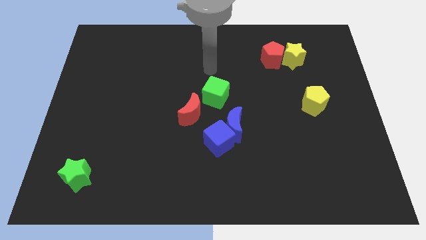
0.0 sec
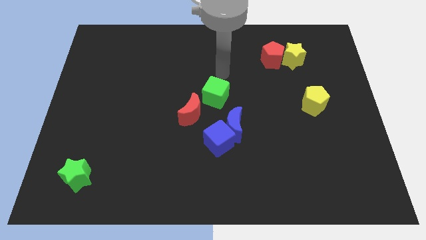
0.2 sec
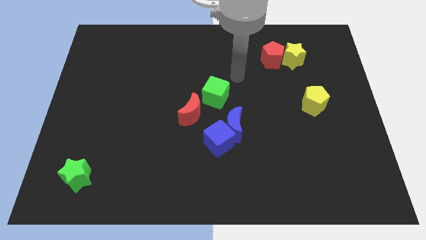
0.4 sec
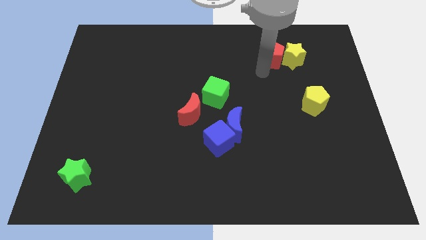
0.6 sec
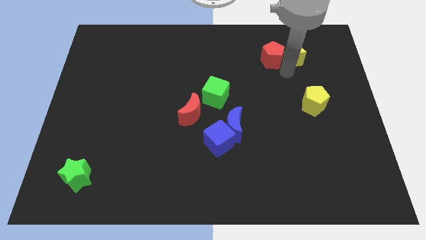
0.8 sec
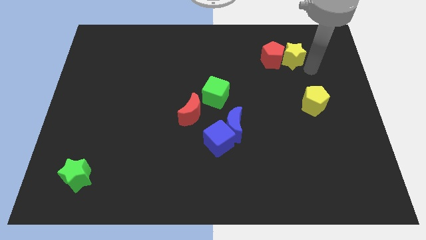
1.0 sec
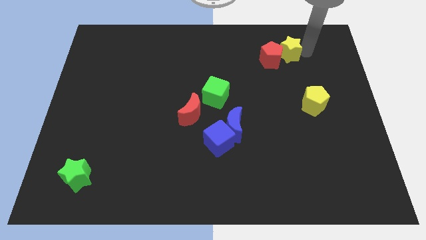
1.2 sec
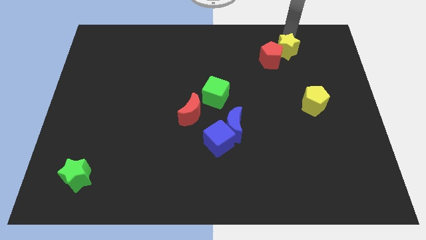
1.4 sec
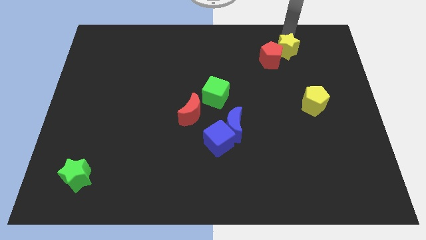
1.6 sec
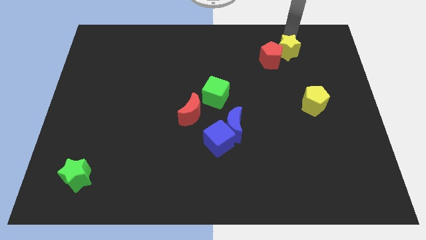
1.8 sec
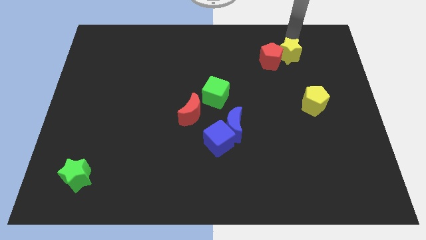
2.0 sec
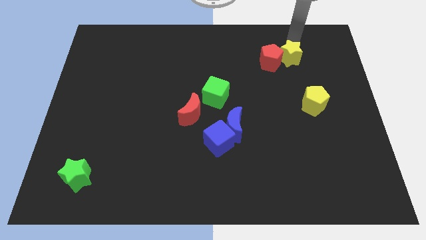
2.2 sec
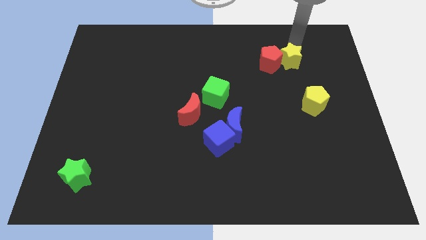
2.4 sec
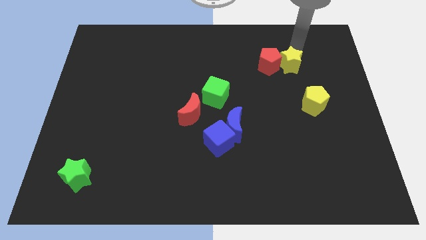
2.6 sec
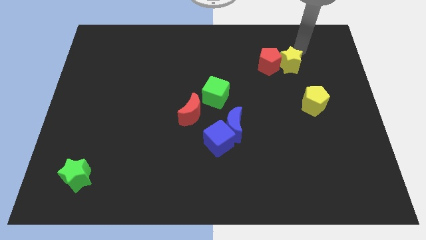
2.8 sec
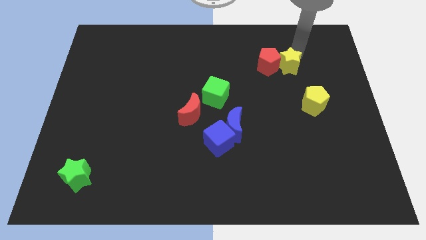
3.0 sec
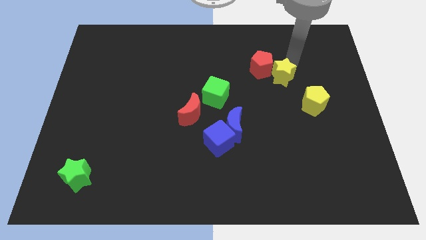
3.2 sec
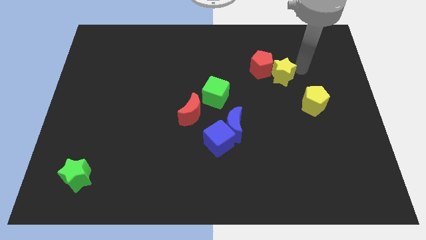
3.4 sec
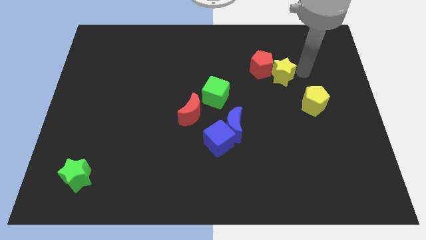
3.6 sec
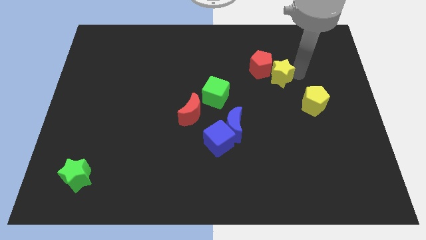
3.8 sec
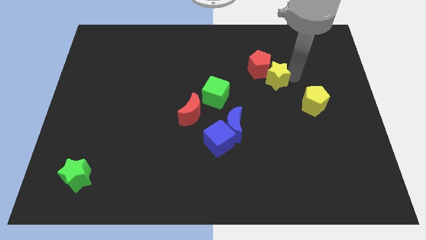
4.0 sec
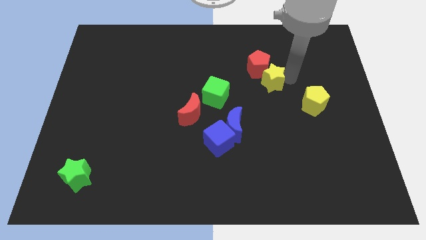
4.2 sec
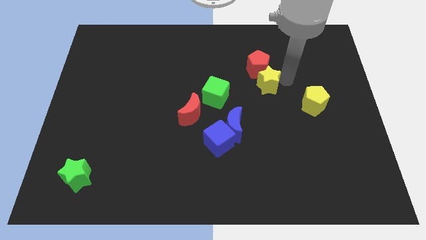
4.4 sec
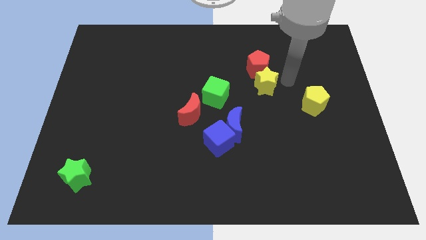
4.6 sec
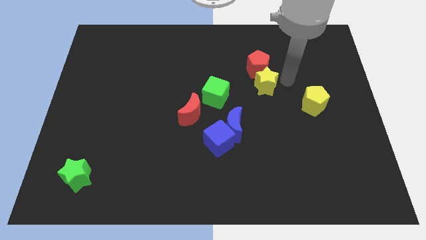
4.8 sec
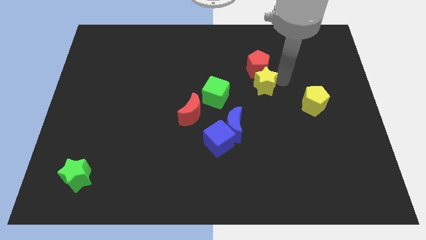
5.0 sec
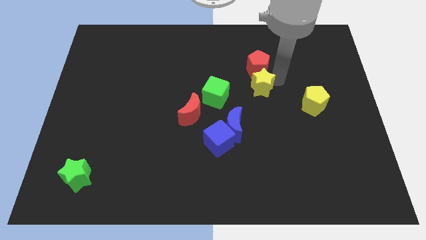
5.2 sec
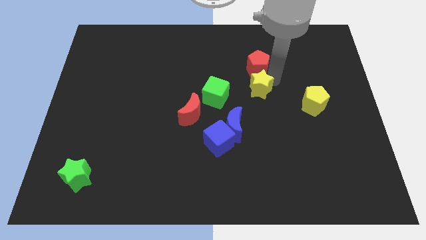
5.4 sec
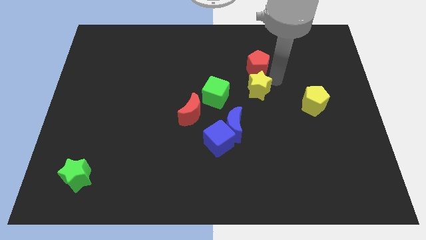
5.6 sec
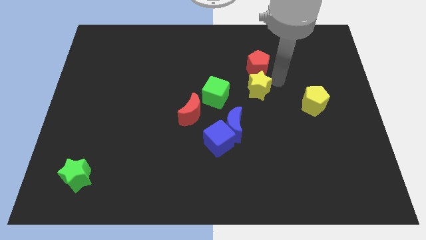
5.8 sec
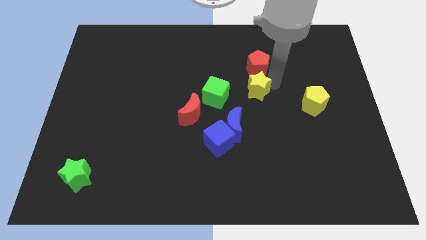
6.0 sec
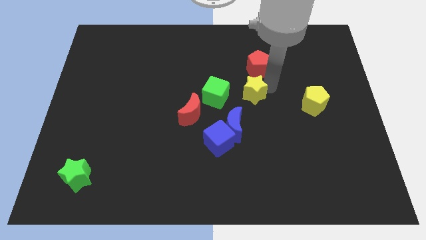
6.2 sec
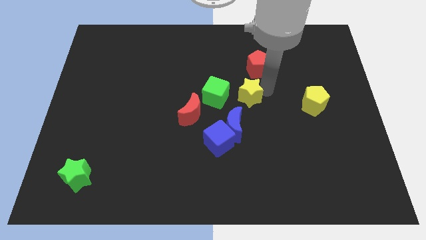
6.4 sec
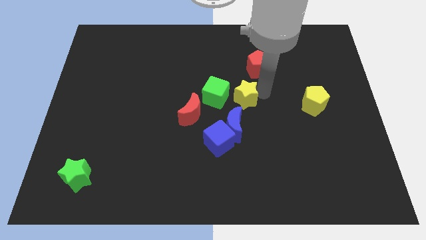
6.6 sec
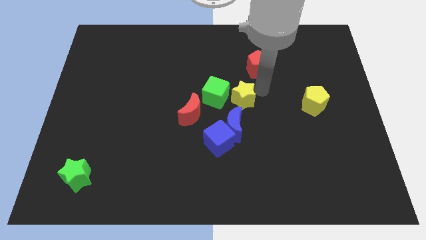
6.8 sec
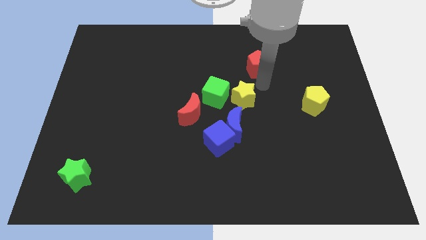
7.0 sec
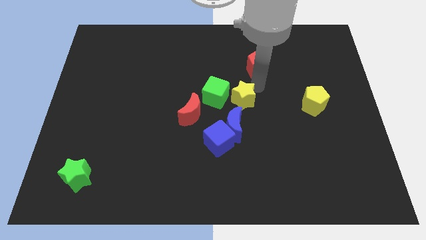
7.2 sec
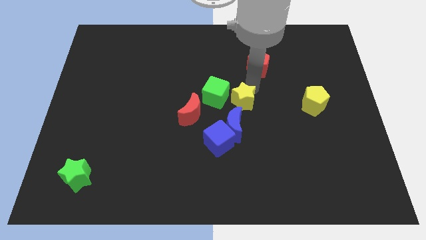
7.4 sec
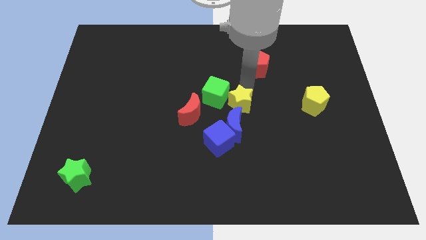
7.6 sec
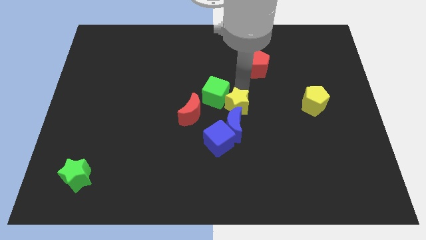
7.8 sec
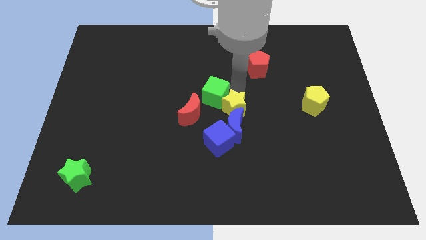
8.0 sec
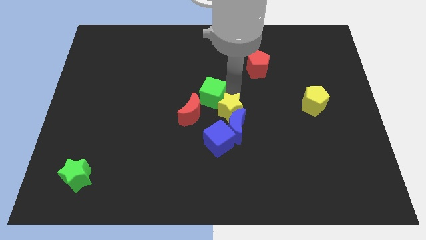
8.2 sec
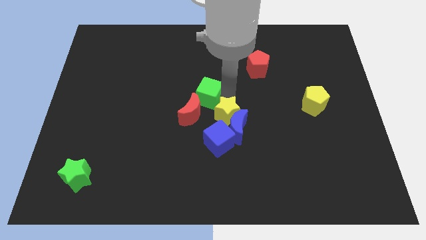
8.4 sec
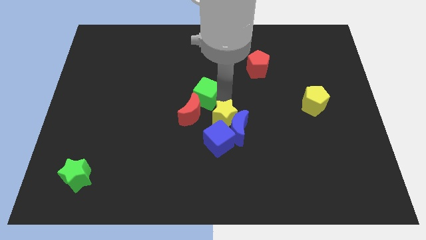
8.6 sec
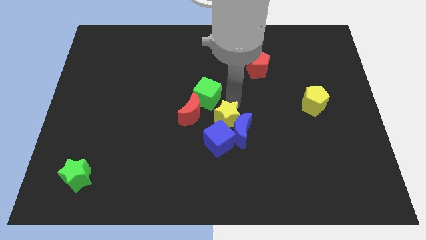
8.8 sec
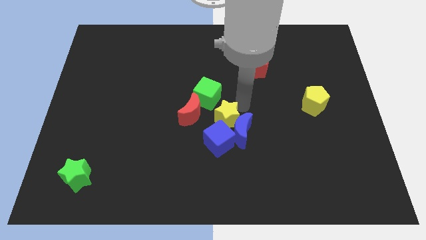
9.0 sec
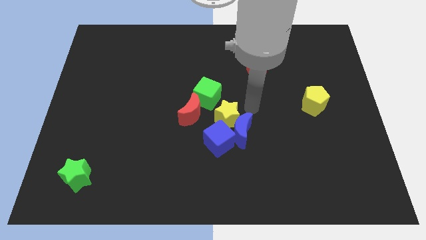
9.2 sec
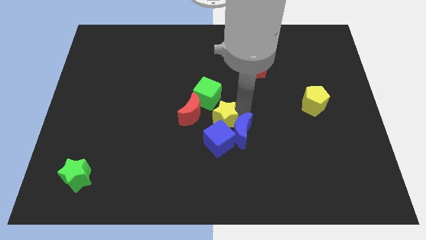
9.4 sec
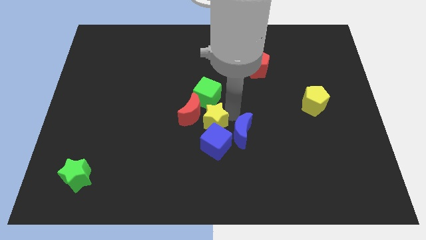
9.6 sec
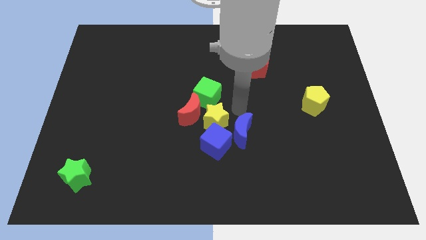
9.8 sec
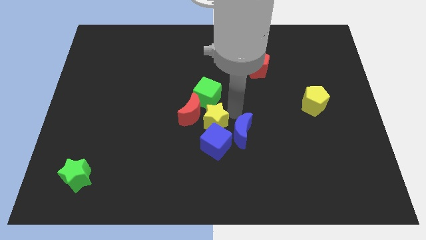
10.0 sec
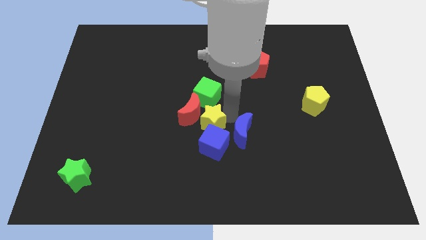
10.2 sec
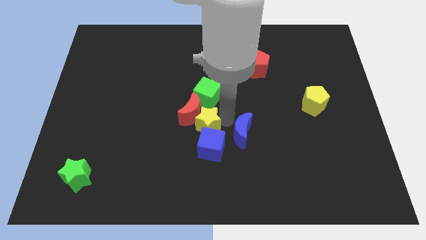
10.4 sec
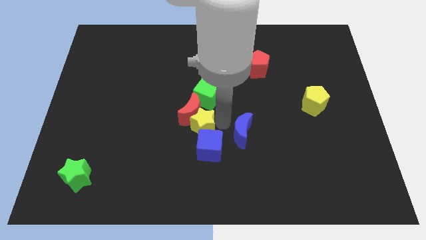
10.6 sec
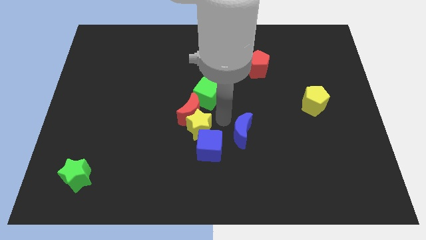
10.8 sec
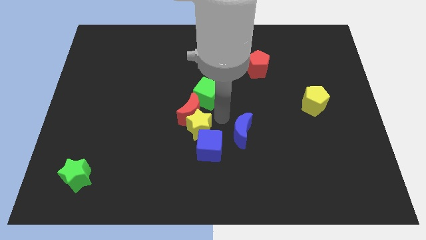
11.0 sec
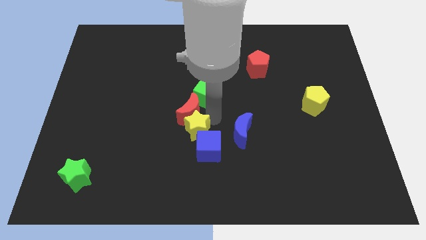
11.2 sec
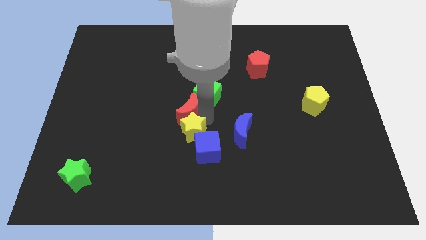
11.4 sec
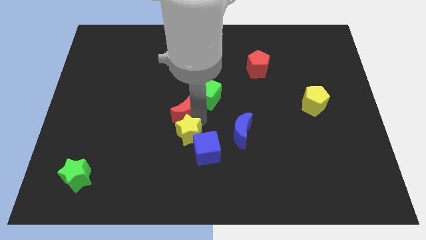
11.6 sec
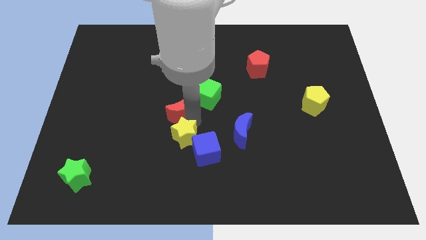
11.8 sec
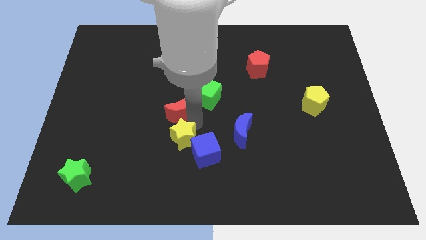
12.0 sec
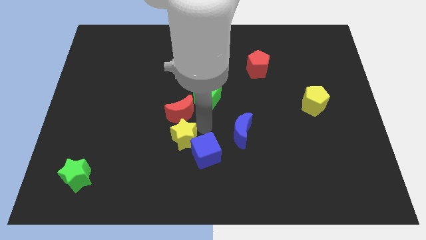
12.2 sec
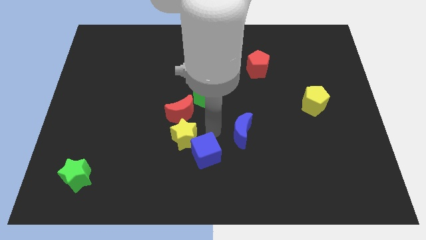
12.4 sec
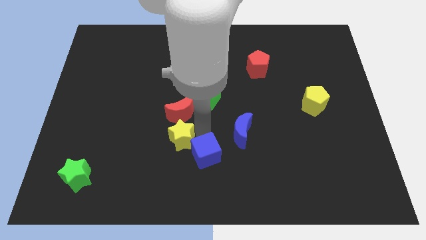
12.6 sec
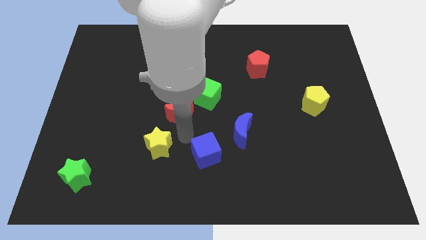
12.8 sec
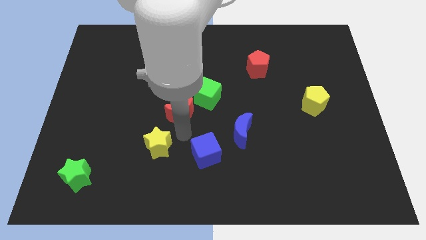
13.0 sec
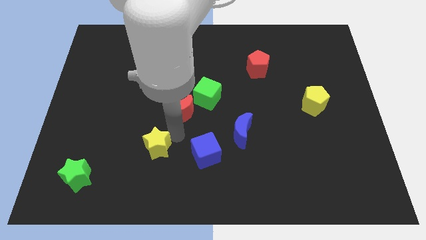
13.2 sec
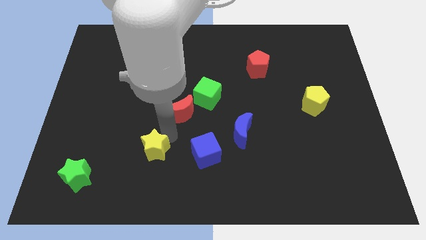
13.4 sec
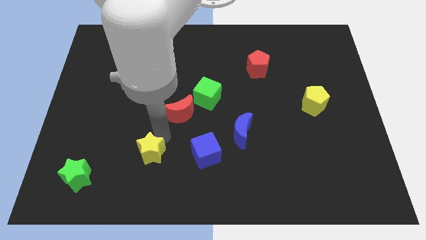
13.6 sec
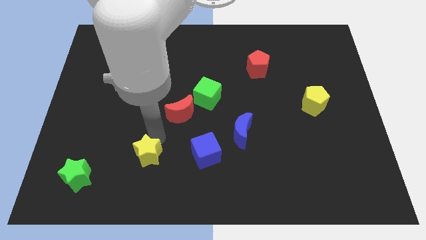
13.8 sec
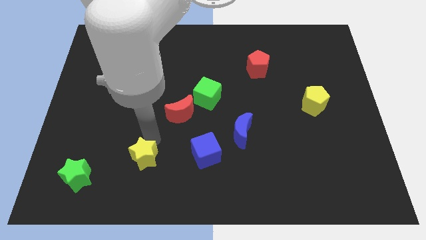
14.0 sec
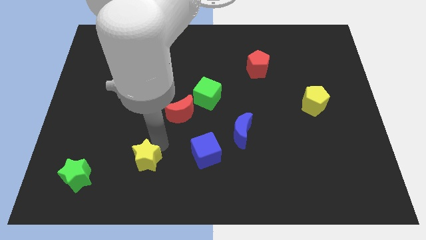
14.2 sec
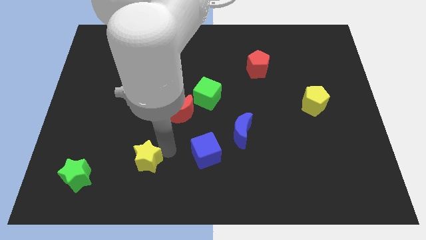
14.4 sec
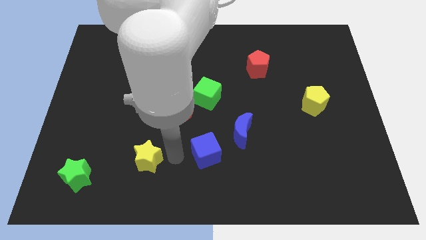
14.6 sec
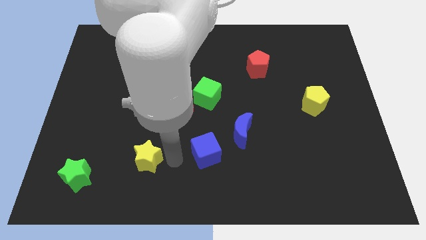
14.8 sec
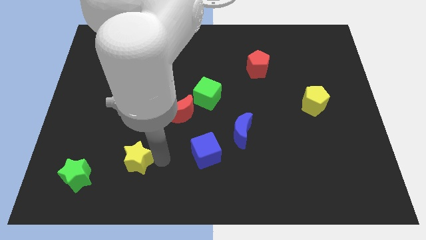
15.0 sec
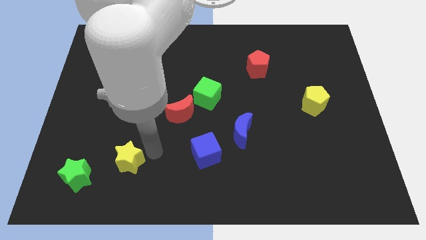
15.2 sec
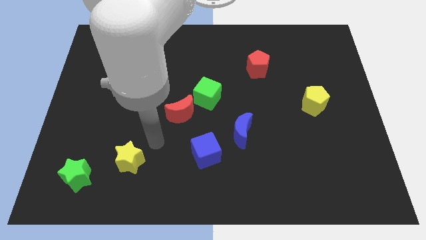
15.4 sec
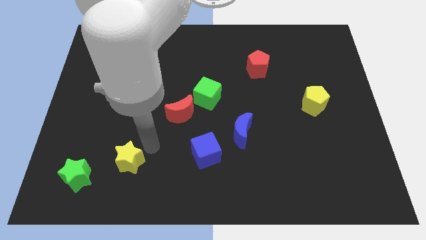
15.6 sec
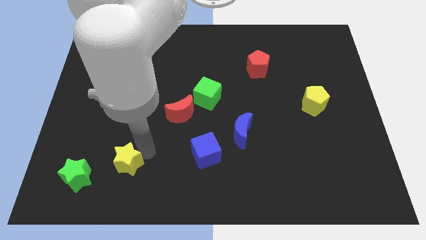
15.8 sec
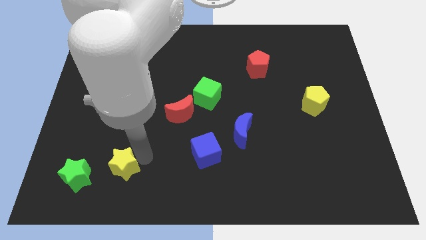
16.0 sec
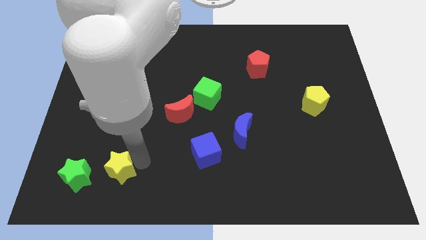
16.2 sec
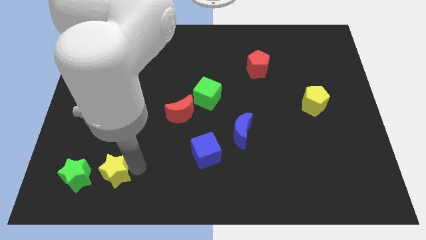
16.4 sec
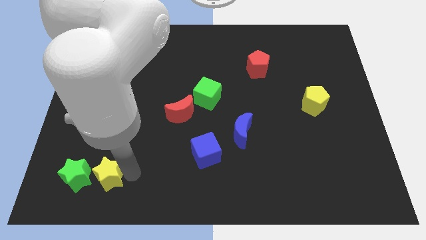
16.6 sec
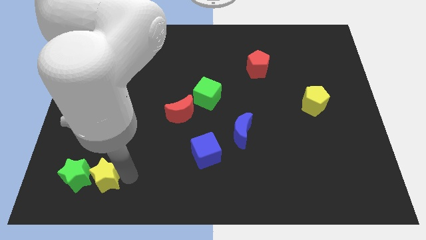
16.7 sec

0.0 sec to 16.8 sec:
slide the yellow star next to the green star
